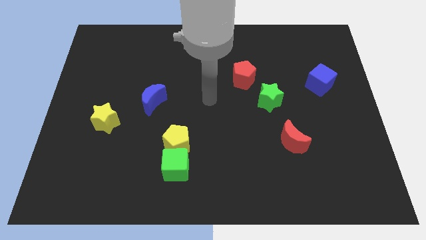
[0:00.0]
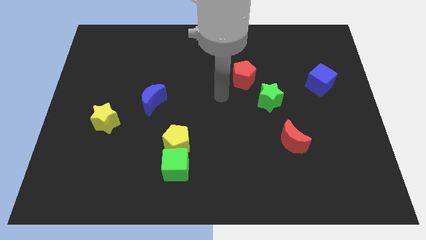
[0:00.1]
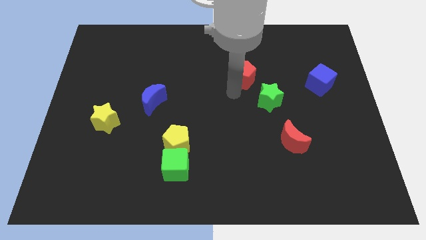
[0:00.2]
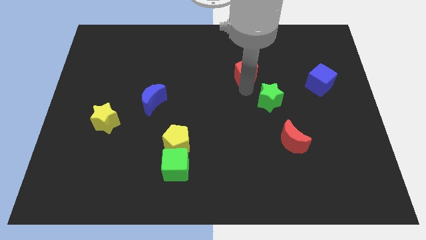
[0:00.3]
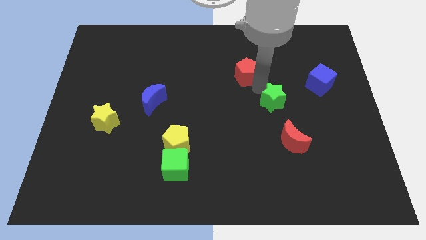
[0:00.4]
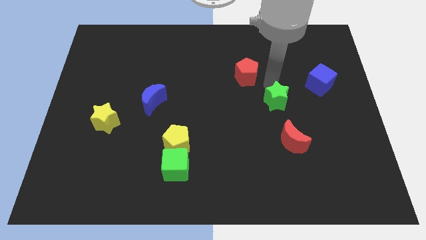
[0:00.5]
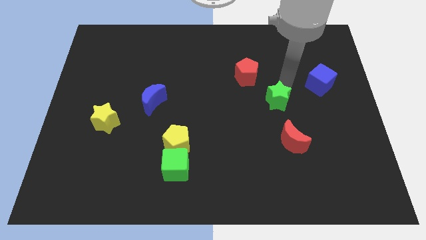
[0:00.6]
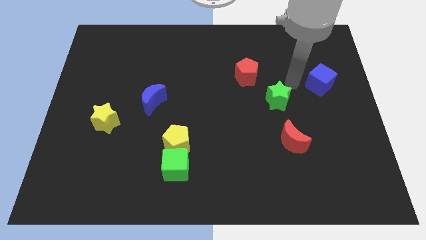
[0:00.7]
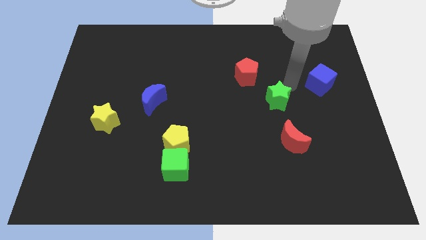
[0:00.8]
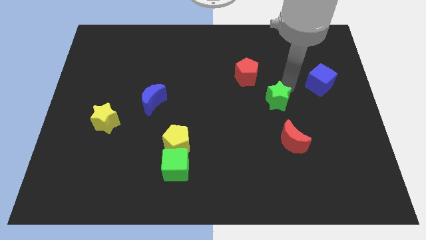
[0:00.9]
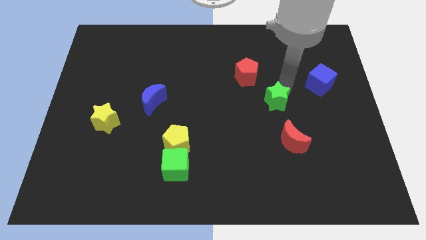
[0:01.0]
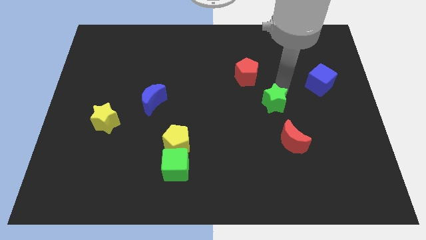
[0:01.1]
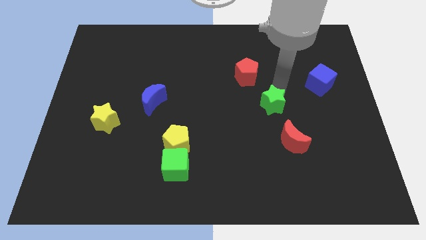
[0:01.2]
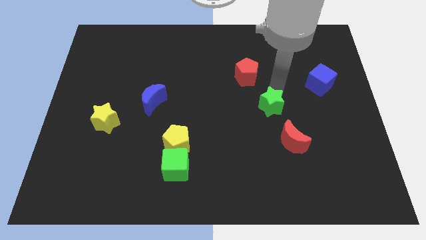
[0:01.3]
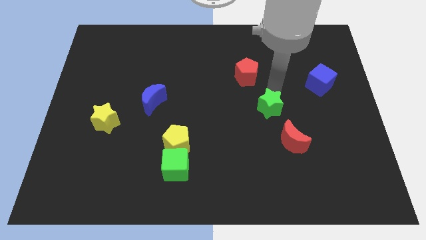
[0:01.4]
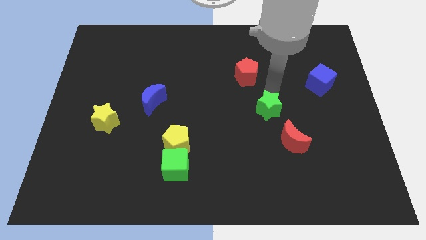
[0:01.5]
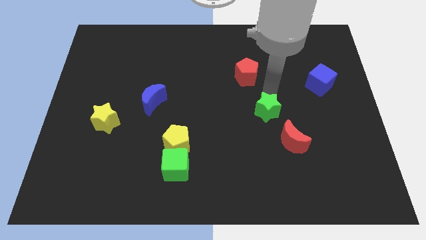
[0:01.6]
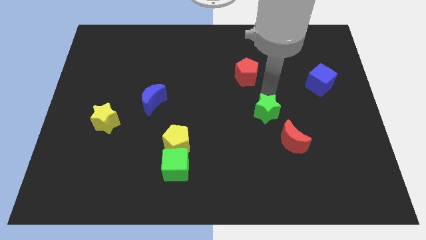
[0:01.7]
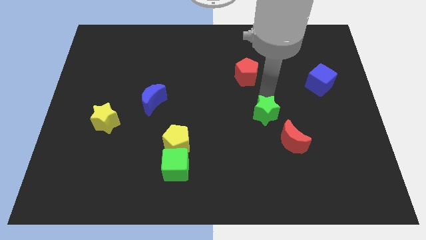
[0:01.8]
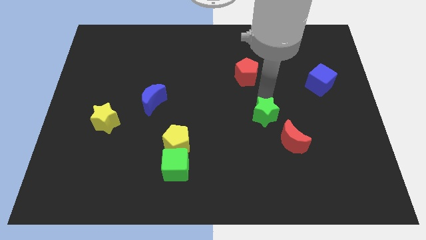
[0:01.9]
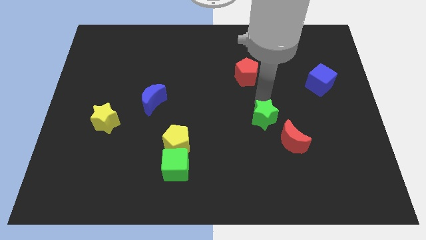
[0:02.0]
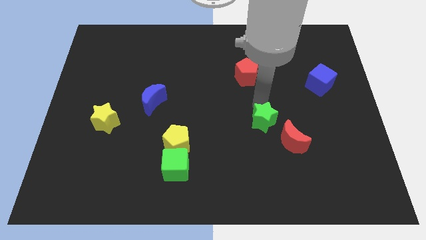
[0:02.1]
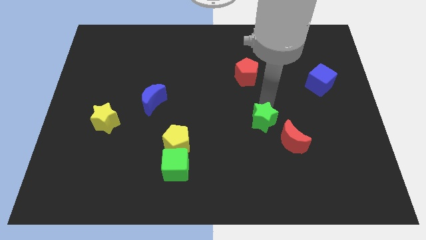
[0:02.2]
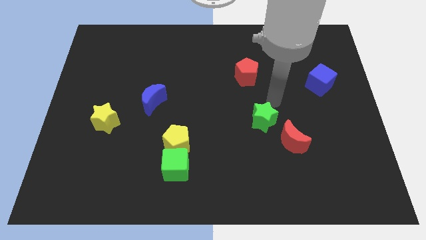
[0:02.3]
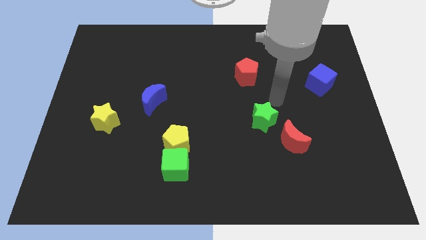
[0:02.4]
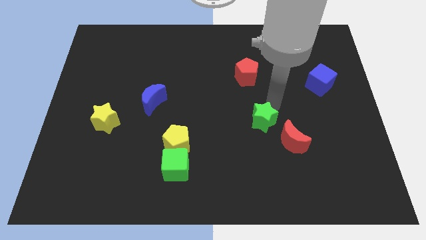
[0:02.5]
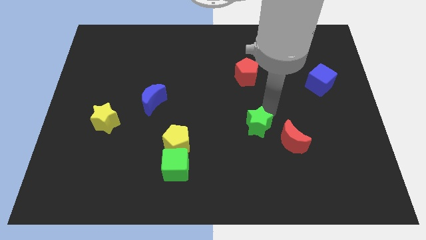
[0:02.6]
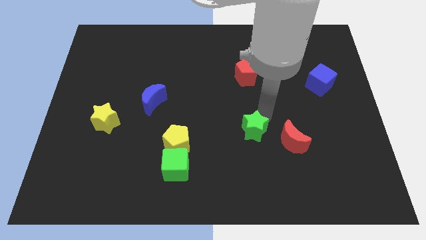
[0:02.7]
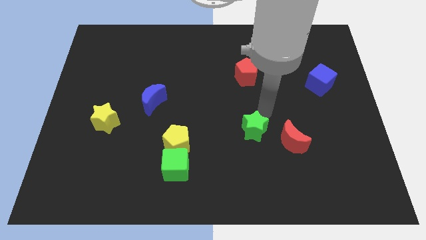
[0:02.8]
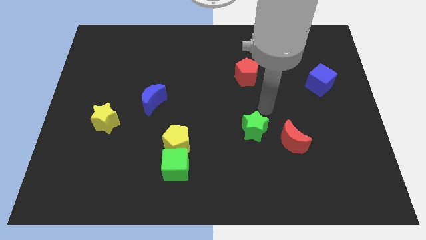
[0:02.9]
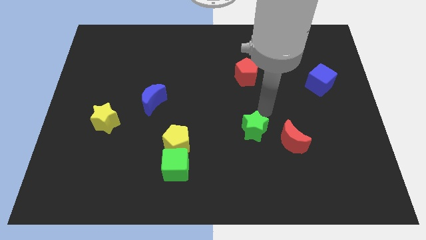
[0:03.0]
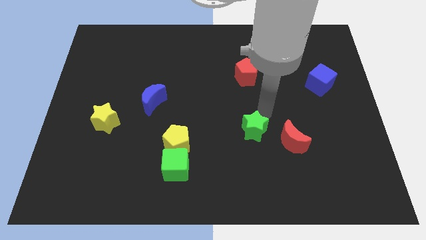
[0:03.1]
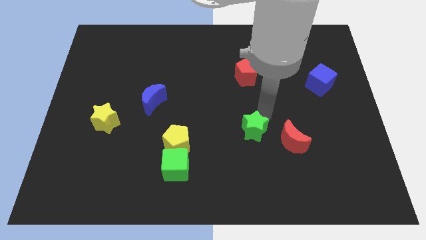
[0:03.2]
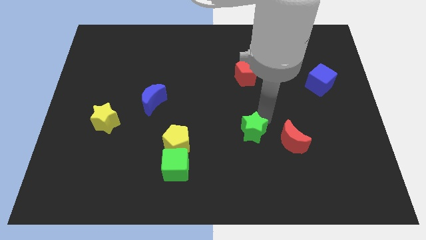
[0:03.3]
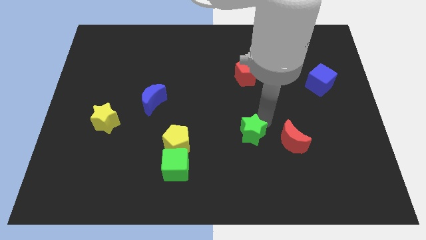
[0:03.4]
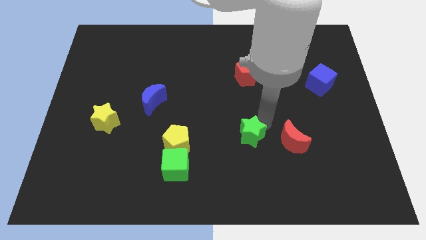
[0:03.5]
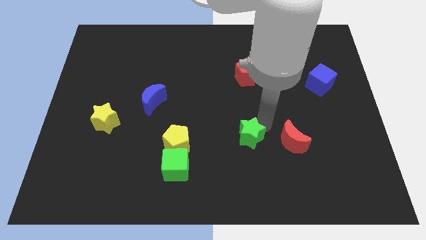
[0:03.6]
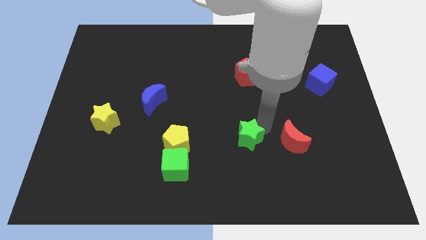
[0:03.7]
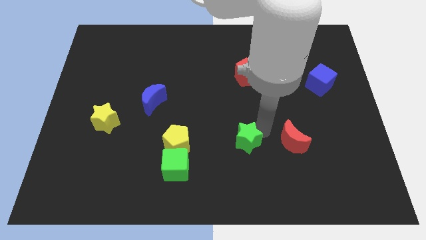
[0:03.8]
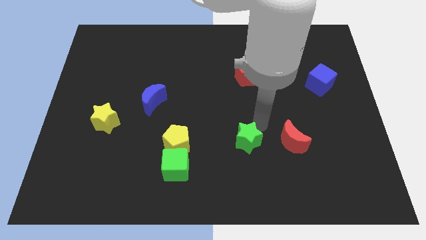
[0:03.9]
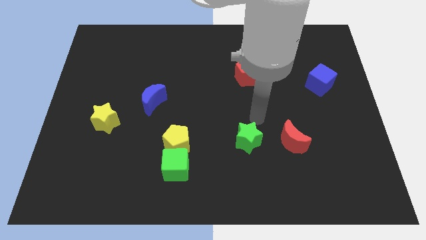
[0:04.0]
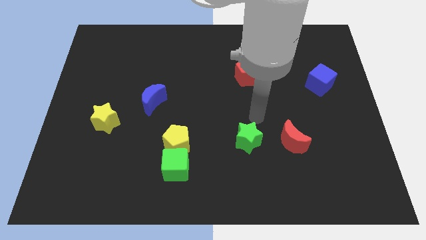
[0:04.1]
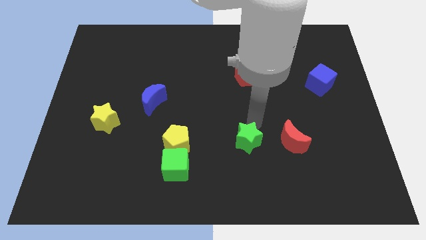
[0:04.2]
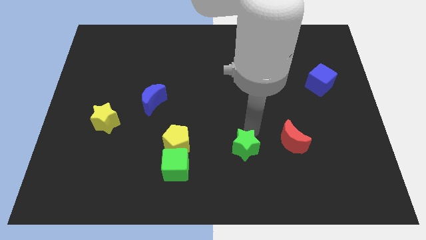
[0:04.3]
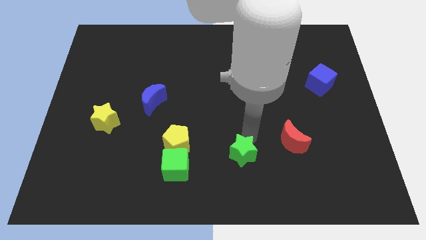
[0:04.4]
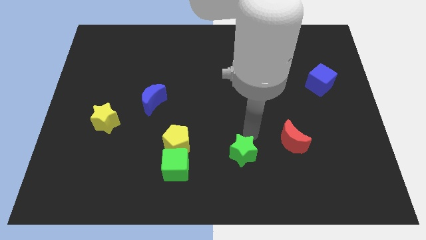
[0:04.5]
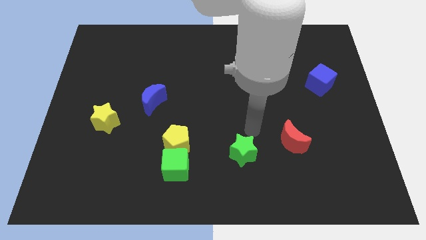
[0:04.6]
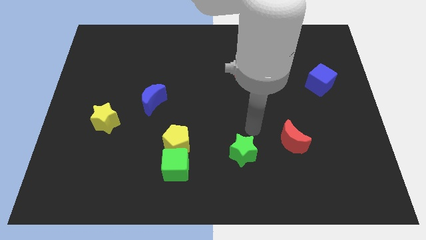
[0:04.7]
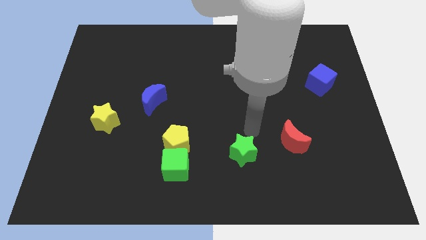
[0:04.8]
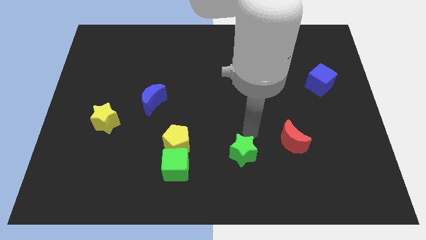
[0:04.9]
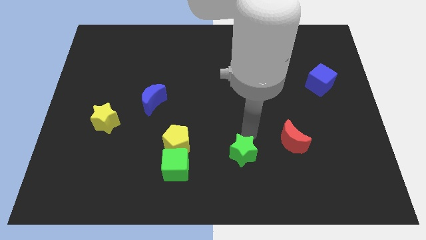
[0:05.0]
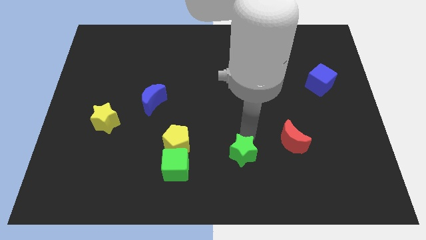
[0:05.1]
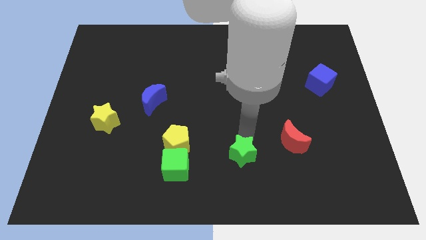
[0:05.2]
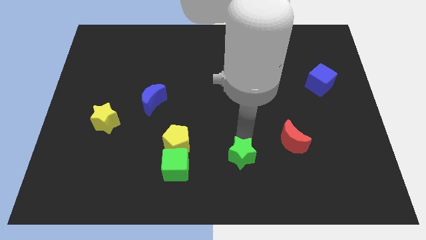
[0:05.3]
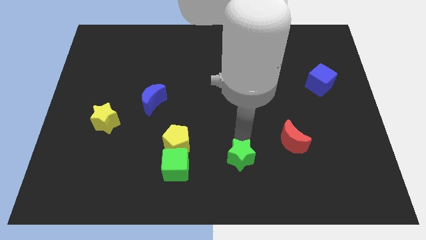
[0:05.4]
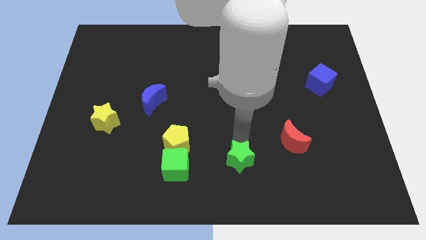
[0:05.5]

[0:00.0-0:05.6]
put the green star to the bottom

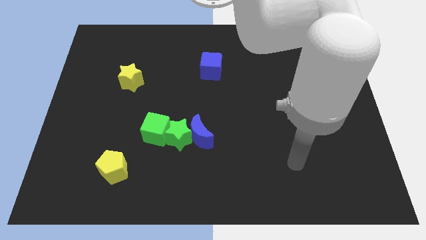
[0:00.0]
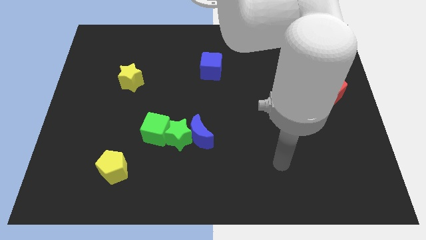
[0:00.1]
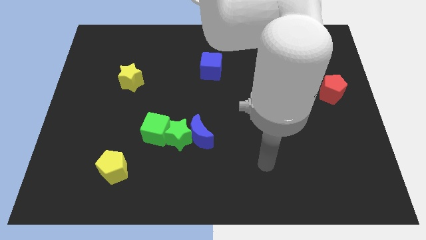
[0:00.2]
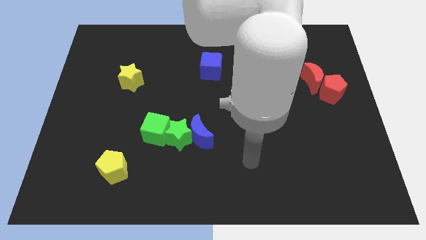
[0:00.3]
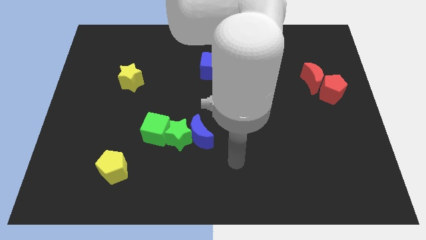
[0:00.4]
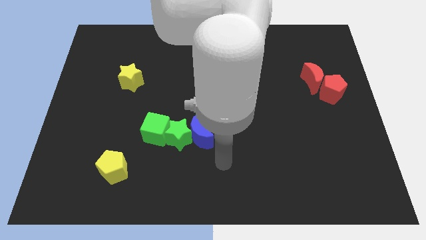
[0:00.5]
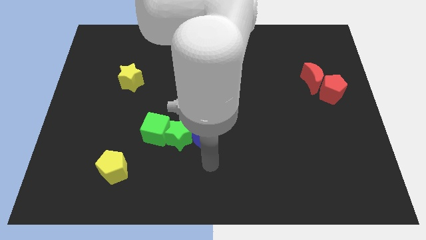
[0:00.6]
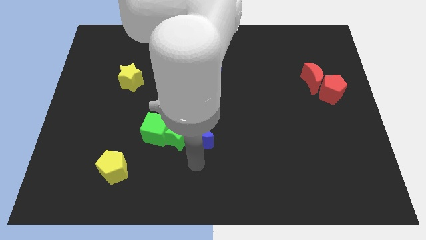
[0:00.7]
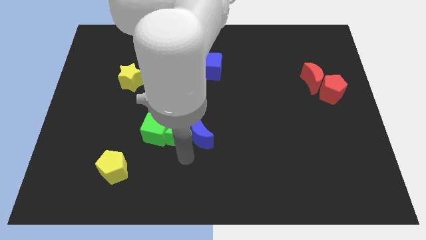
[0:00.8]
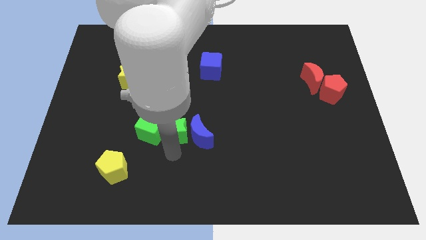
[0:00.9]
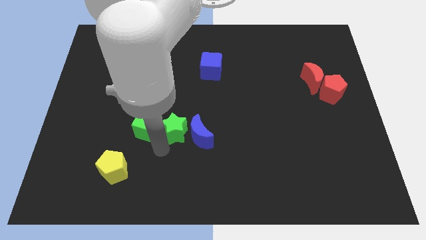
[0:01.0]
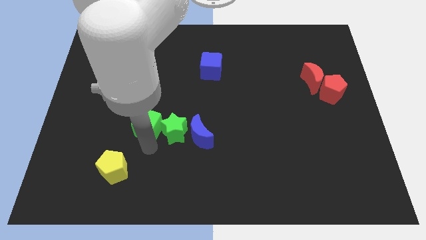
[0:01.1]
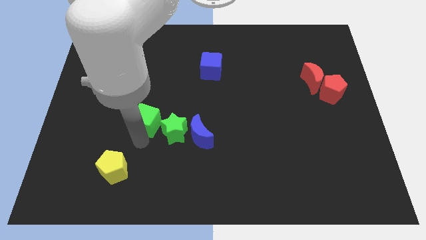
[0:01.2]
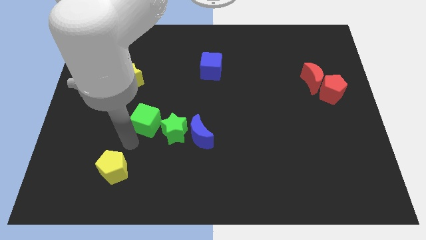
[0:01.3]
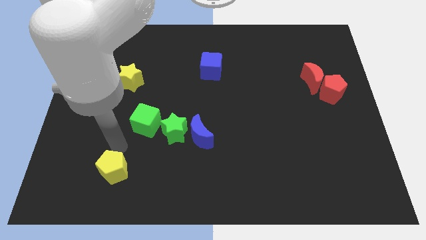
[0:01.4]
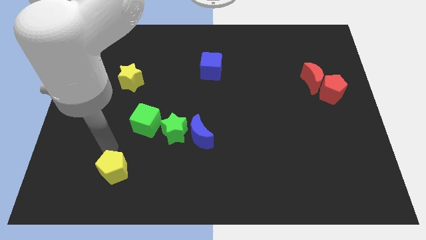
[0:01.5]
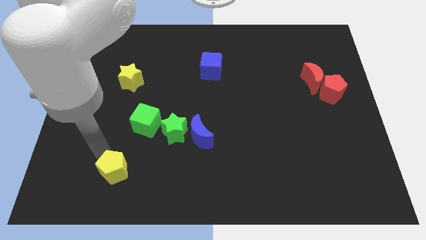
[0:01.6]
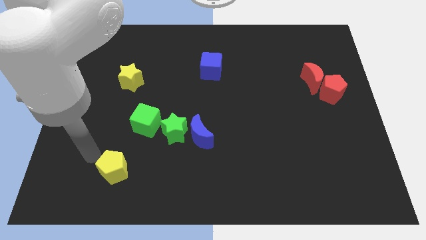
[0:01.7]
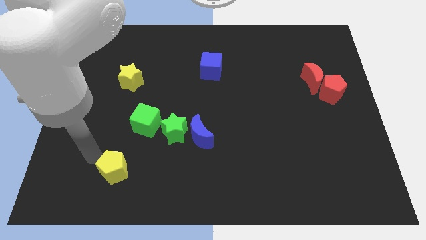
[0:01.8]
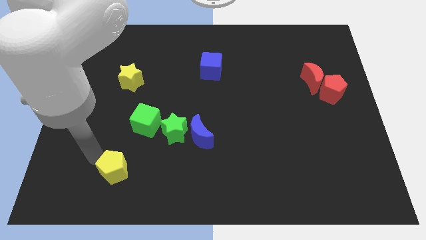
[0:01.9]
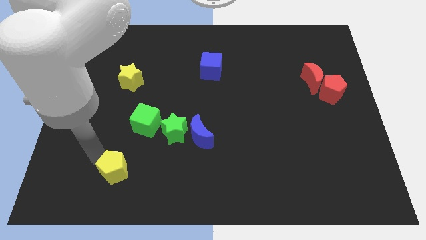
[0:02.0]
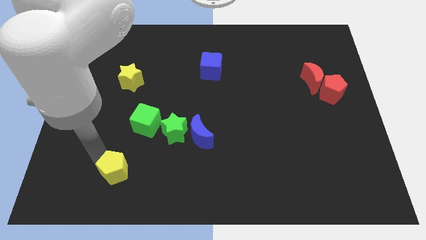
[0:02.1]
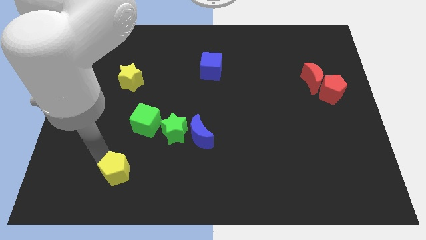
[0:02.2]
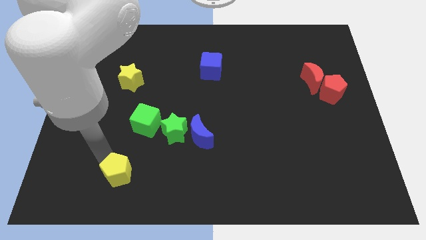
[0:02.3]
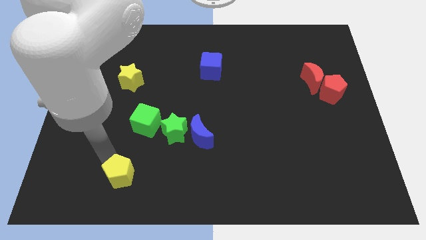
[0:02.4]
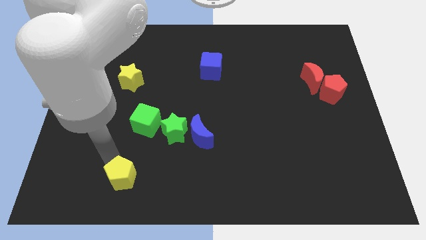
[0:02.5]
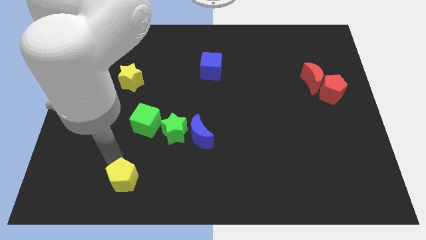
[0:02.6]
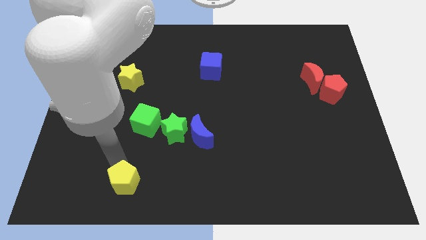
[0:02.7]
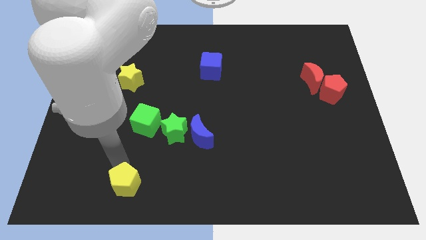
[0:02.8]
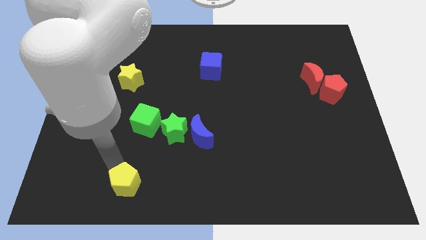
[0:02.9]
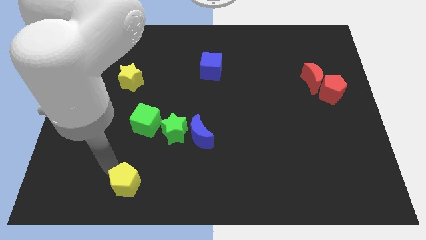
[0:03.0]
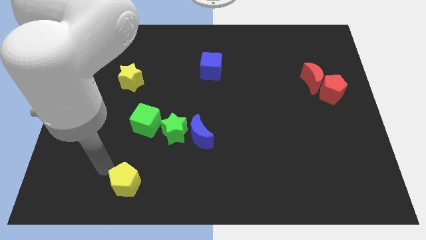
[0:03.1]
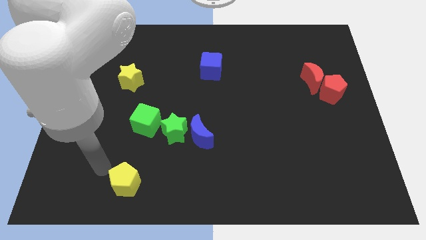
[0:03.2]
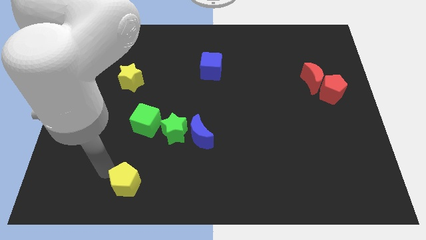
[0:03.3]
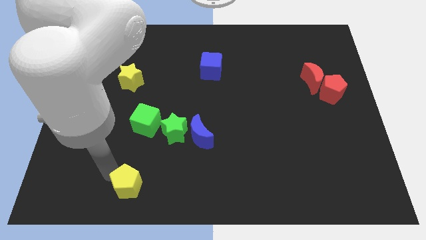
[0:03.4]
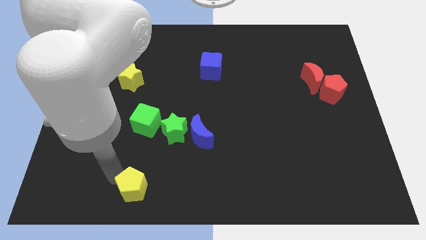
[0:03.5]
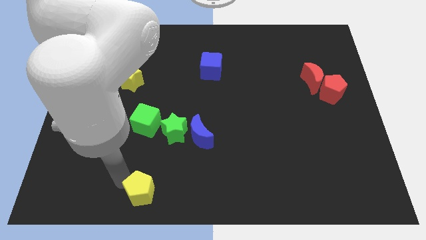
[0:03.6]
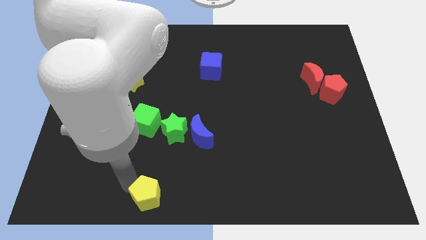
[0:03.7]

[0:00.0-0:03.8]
push the yellow pentagon to the bottom side
